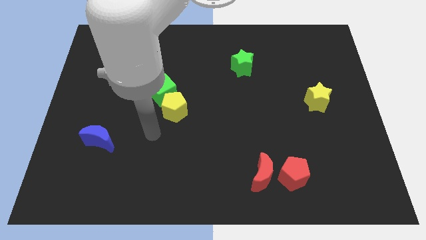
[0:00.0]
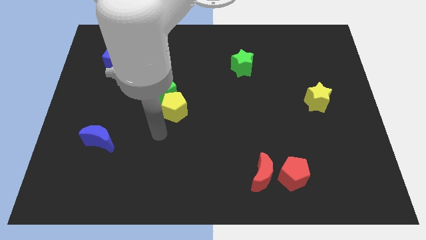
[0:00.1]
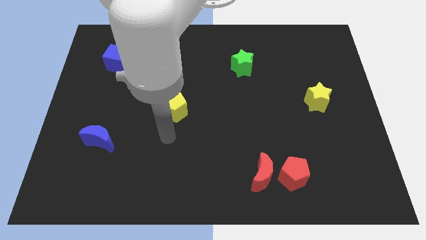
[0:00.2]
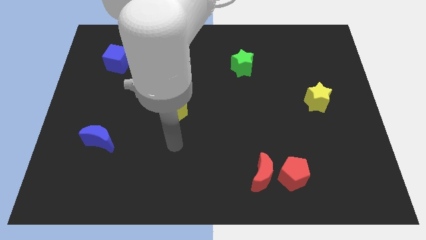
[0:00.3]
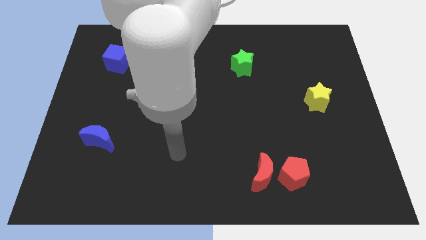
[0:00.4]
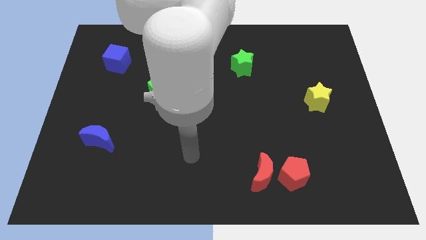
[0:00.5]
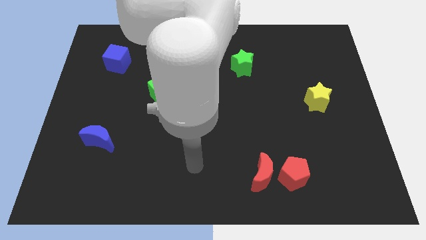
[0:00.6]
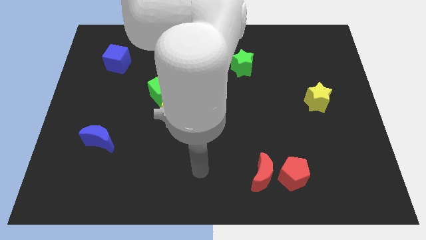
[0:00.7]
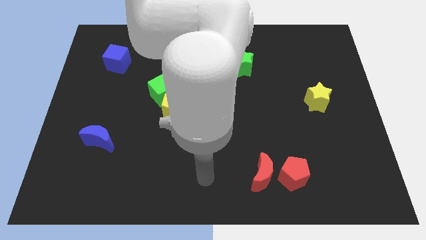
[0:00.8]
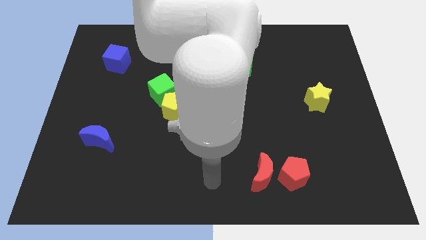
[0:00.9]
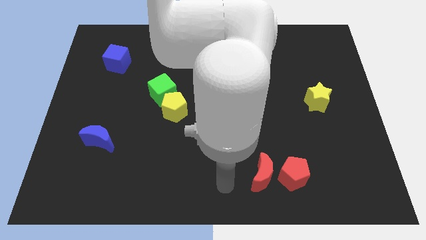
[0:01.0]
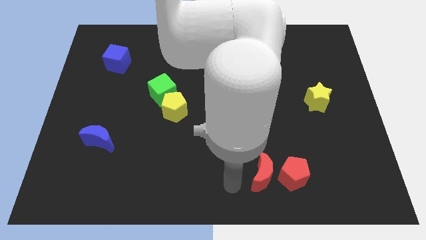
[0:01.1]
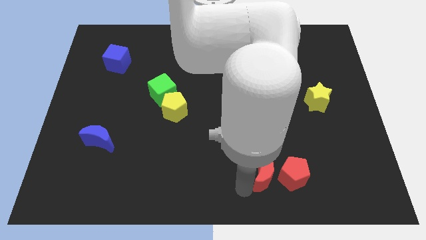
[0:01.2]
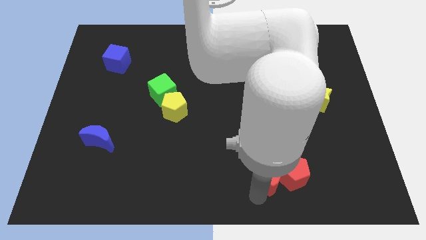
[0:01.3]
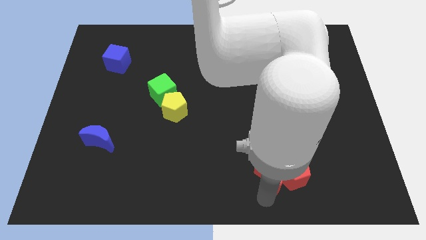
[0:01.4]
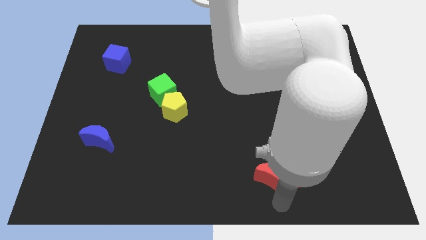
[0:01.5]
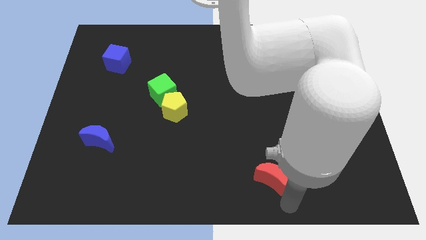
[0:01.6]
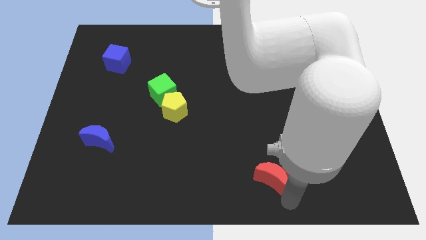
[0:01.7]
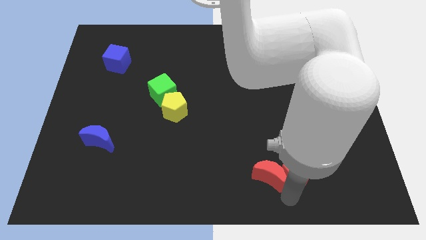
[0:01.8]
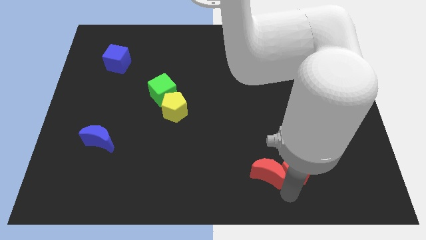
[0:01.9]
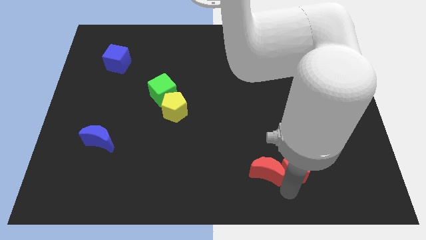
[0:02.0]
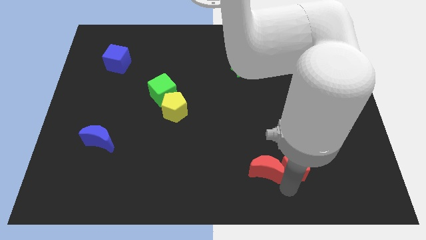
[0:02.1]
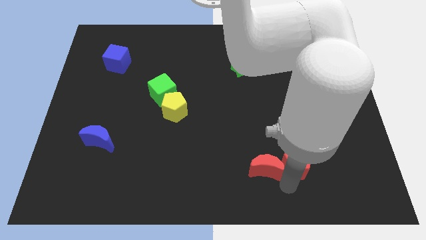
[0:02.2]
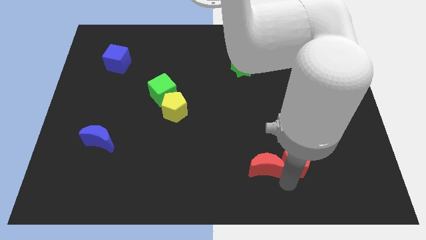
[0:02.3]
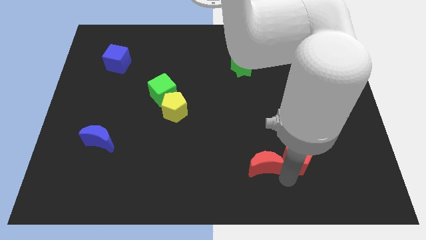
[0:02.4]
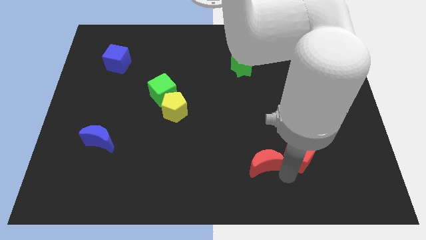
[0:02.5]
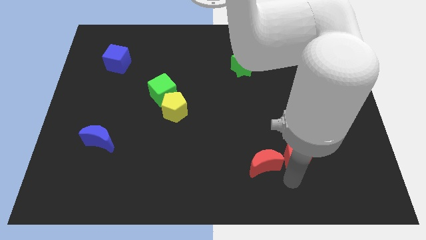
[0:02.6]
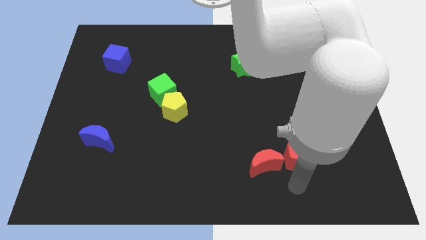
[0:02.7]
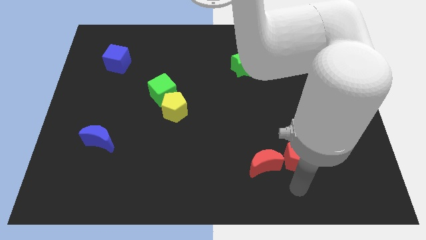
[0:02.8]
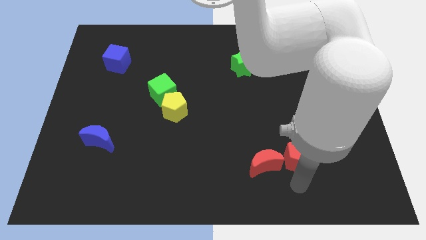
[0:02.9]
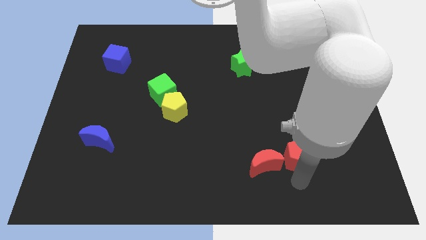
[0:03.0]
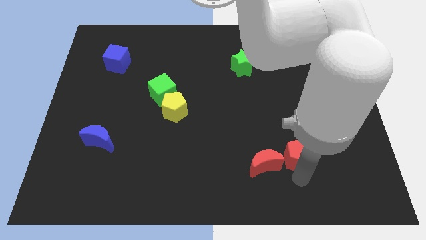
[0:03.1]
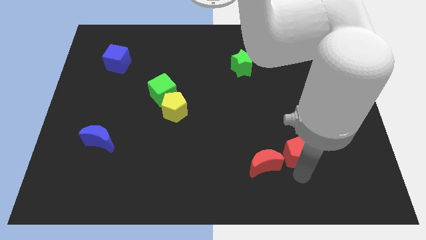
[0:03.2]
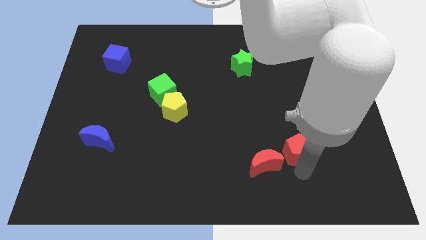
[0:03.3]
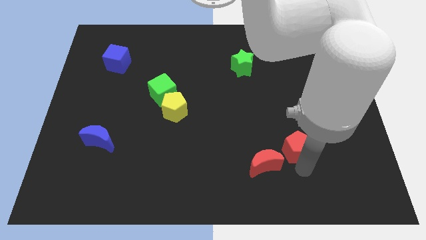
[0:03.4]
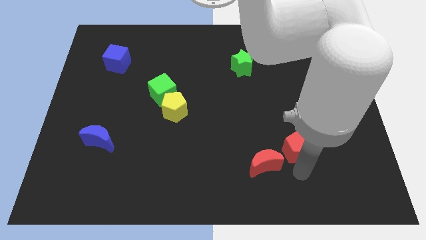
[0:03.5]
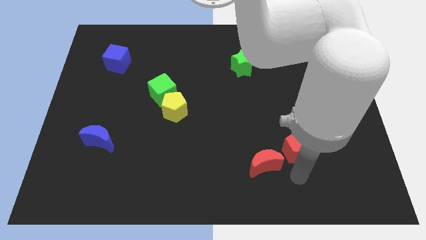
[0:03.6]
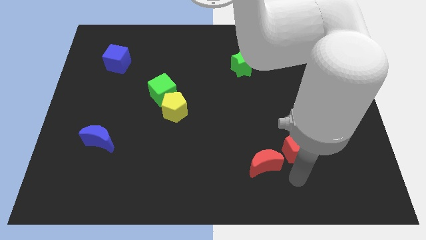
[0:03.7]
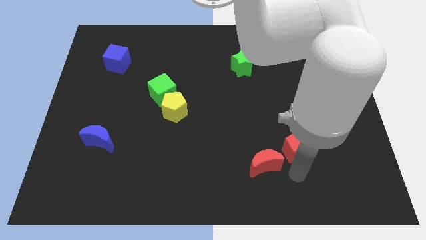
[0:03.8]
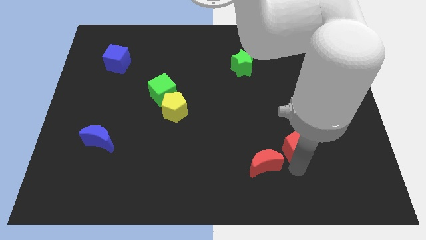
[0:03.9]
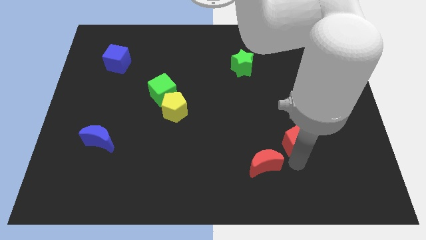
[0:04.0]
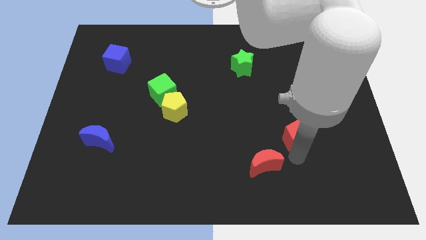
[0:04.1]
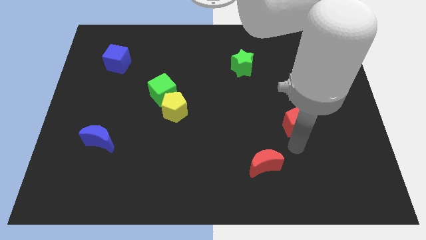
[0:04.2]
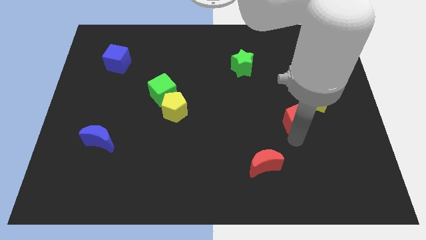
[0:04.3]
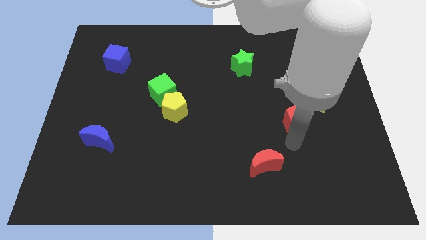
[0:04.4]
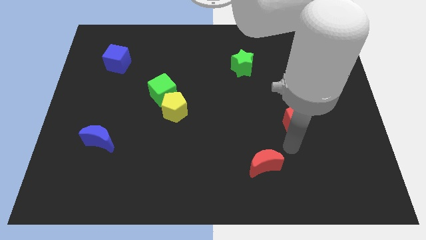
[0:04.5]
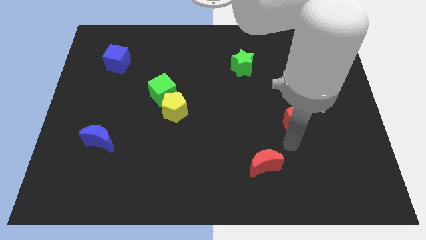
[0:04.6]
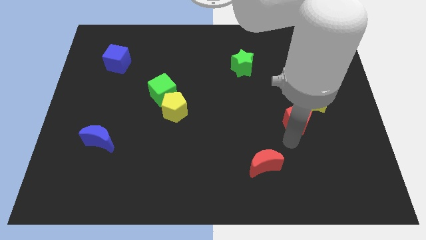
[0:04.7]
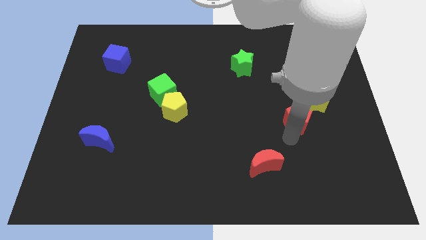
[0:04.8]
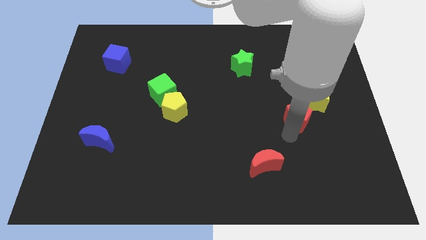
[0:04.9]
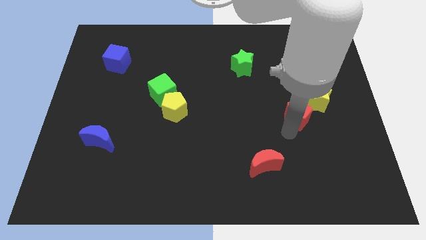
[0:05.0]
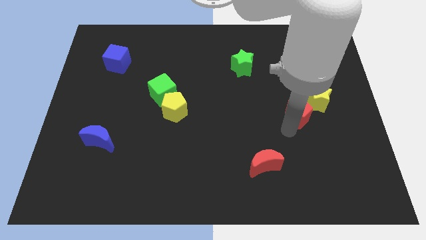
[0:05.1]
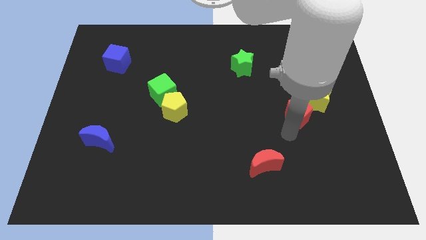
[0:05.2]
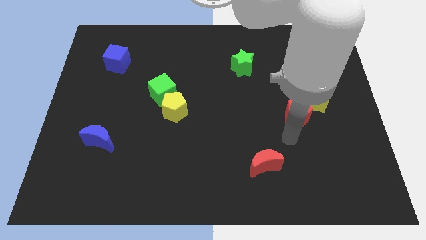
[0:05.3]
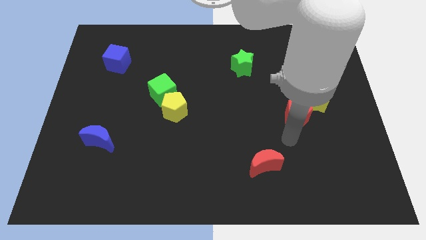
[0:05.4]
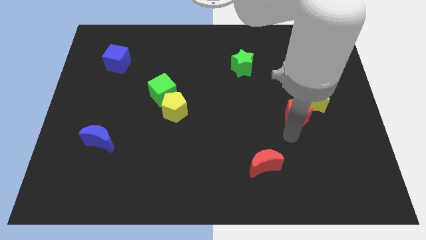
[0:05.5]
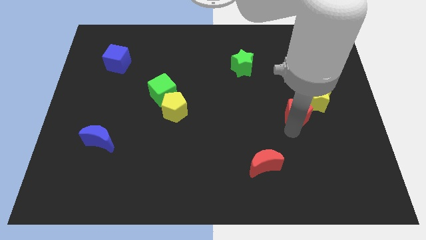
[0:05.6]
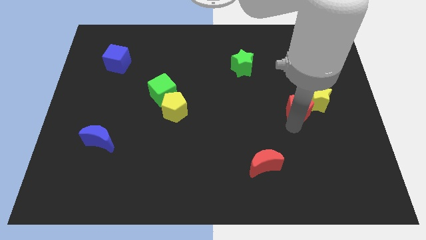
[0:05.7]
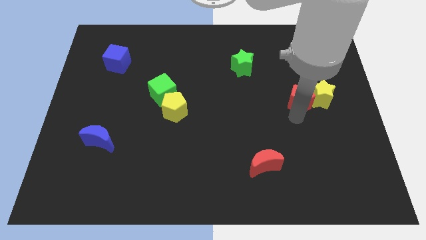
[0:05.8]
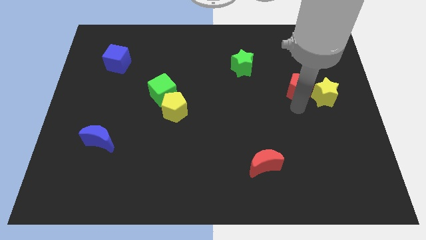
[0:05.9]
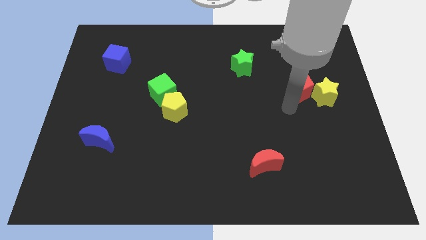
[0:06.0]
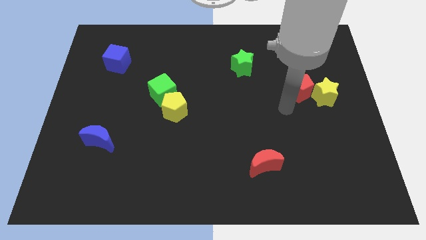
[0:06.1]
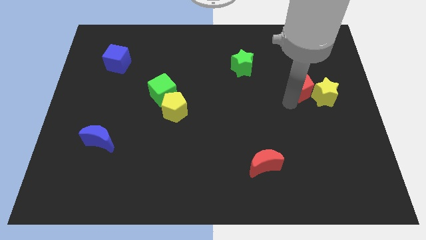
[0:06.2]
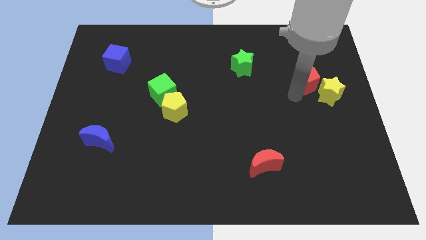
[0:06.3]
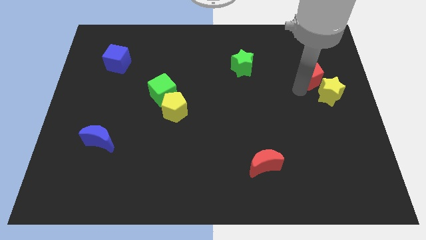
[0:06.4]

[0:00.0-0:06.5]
push the red pentagon to the top of the yellow star

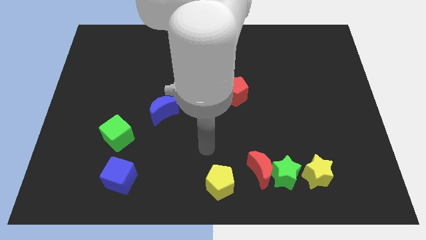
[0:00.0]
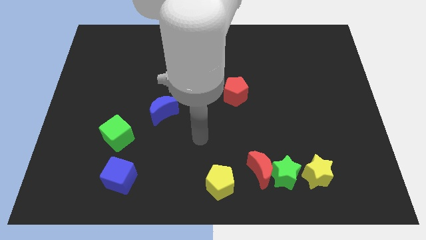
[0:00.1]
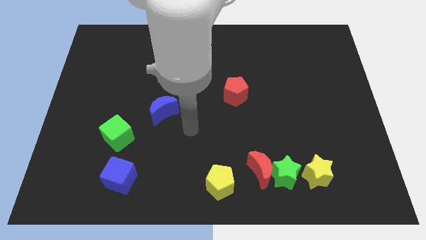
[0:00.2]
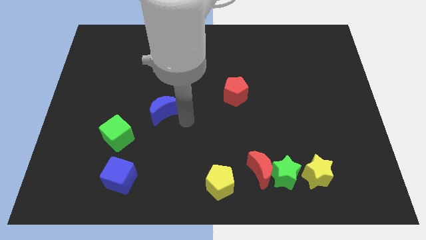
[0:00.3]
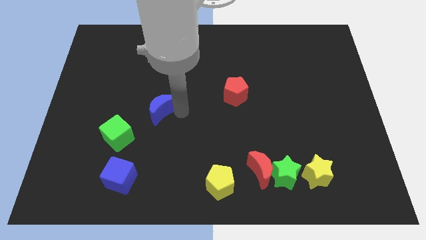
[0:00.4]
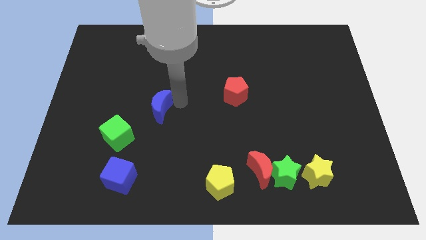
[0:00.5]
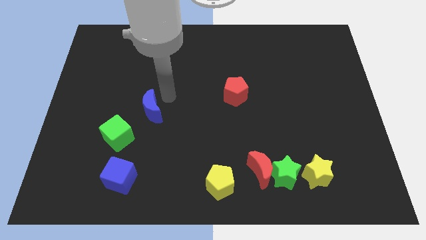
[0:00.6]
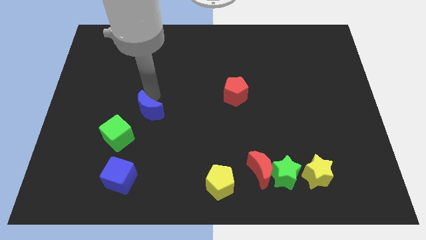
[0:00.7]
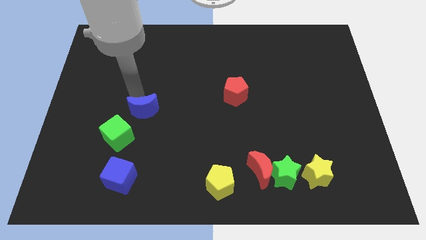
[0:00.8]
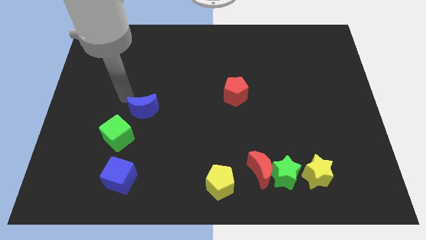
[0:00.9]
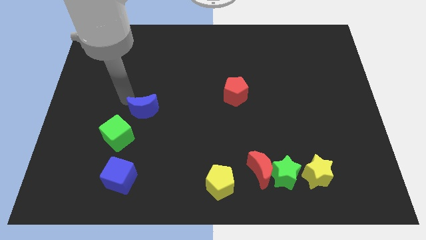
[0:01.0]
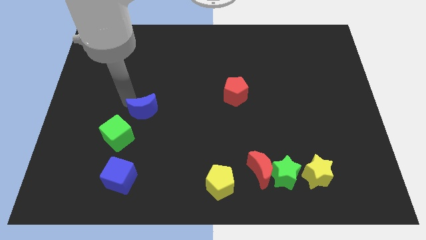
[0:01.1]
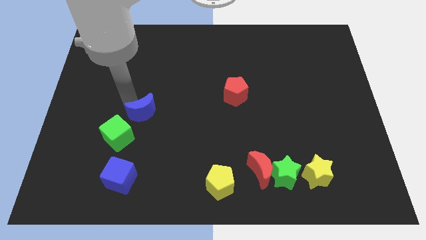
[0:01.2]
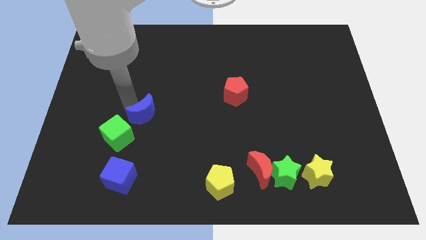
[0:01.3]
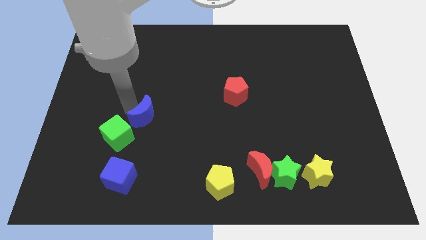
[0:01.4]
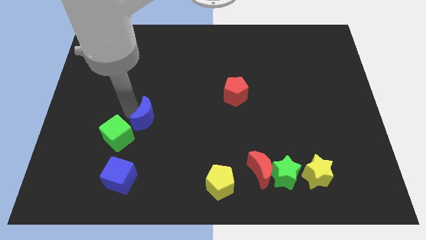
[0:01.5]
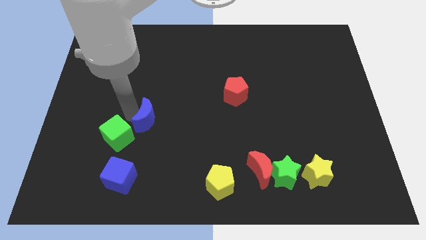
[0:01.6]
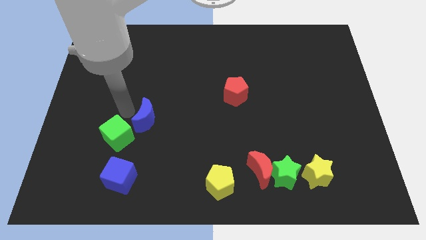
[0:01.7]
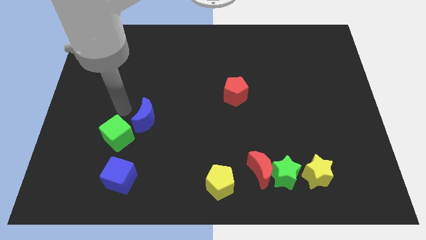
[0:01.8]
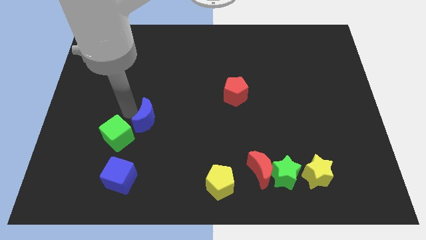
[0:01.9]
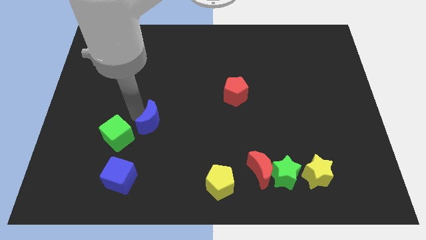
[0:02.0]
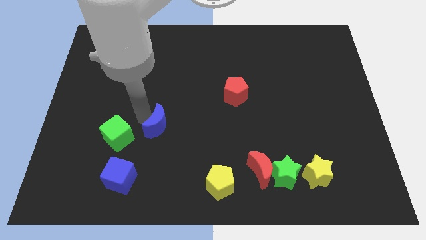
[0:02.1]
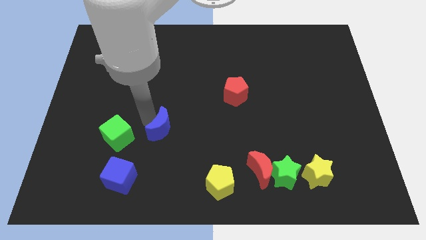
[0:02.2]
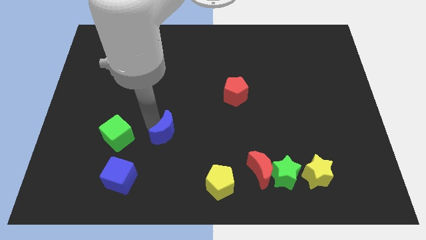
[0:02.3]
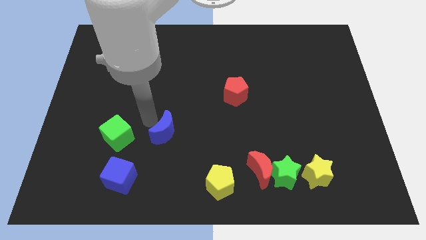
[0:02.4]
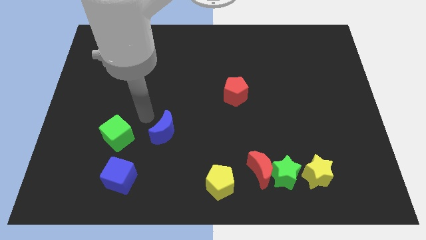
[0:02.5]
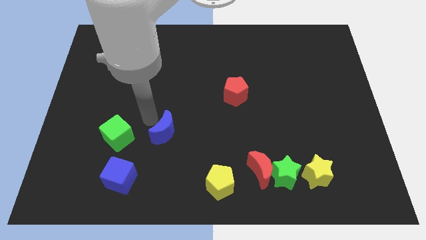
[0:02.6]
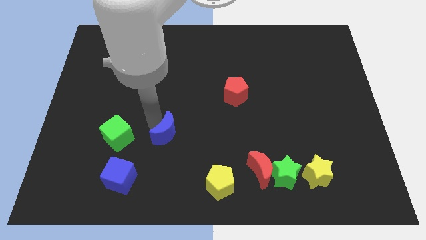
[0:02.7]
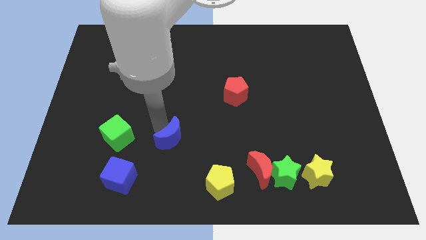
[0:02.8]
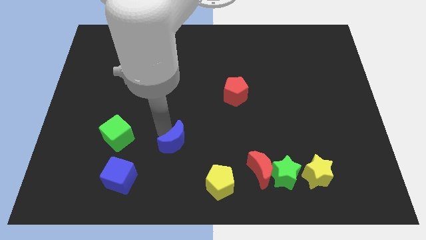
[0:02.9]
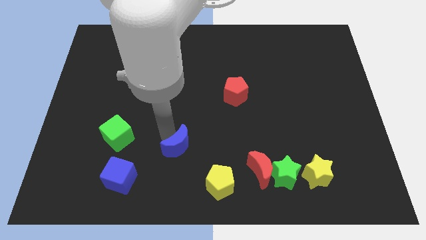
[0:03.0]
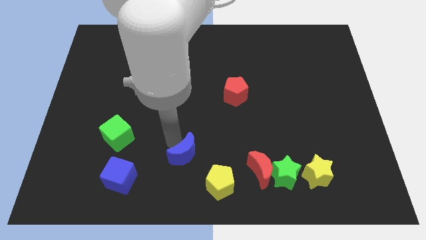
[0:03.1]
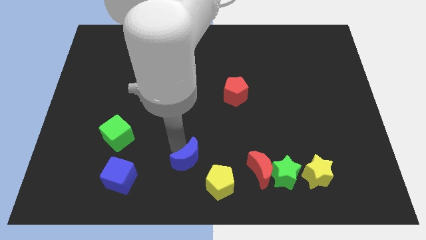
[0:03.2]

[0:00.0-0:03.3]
slide the blue moon just left of the red moon
